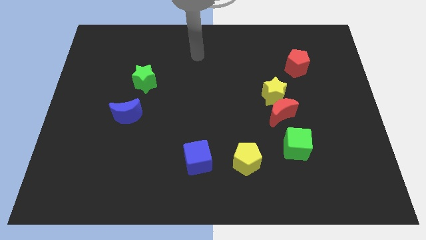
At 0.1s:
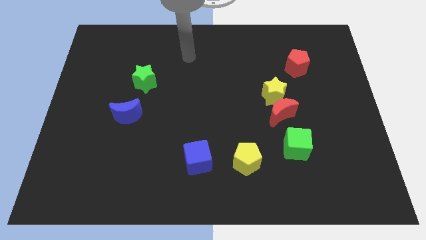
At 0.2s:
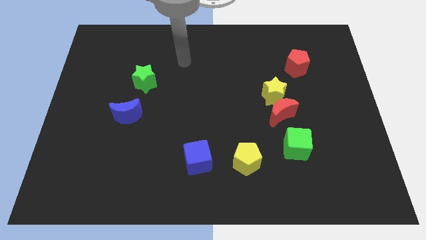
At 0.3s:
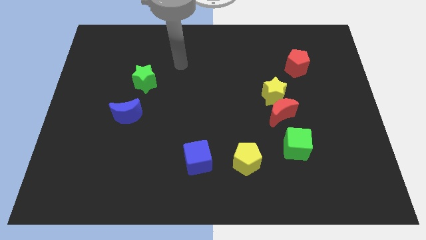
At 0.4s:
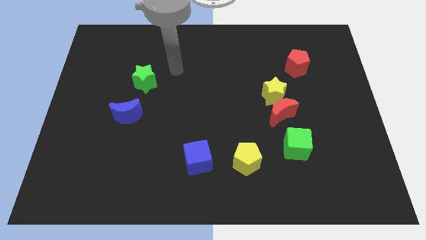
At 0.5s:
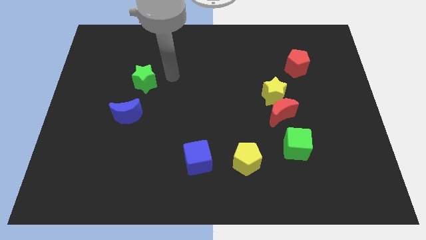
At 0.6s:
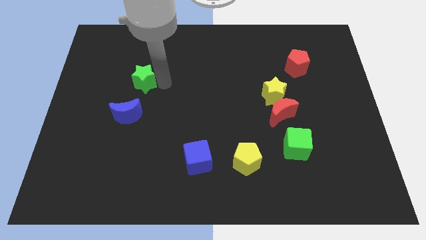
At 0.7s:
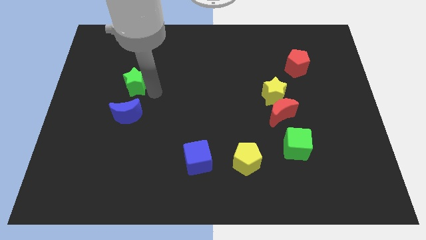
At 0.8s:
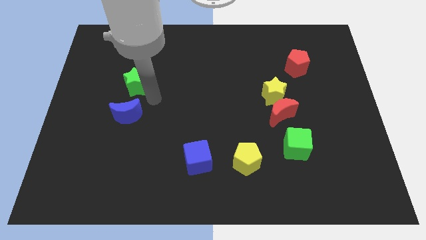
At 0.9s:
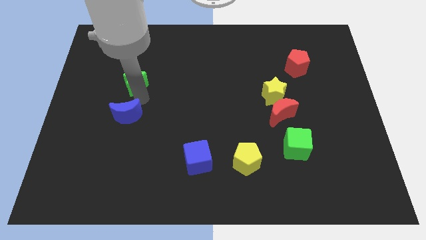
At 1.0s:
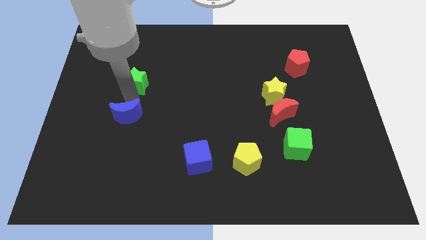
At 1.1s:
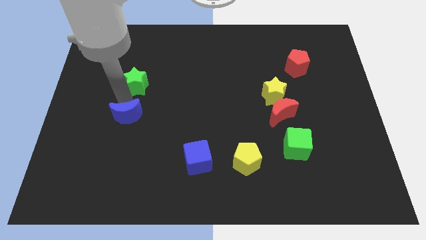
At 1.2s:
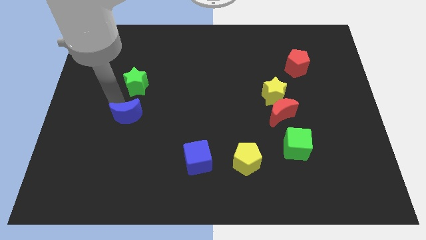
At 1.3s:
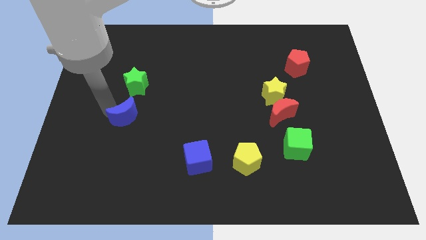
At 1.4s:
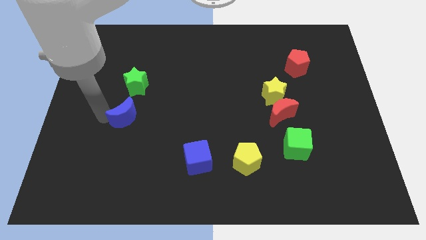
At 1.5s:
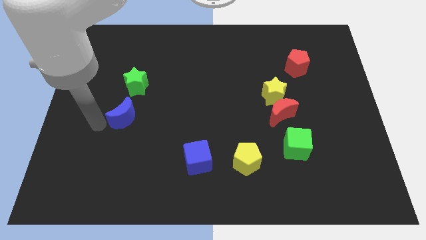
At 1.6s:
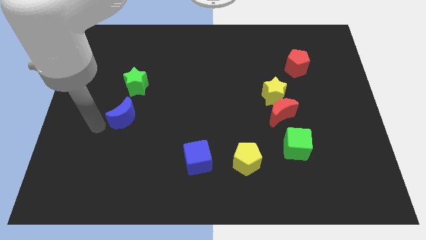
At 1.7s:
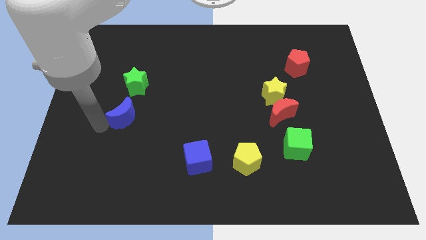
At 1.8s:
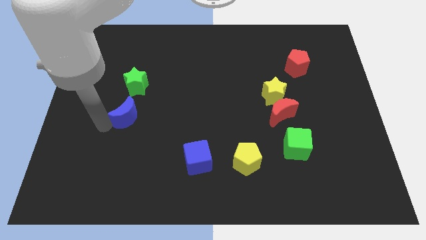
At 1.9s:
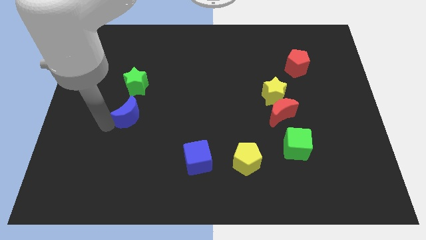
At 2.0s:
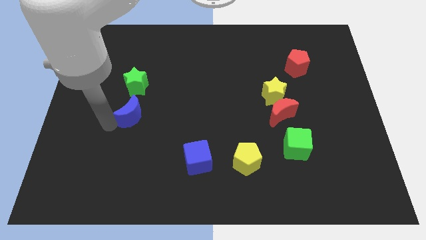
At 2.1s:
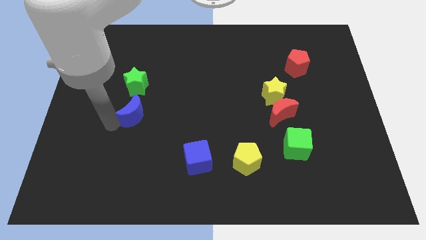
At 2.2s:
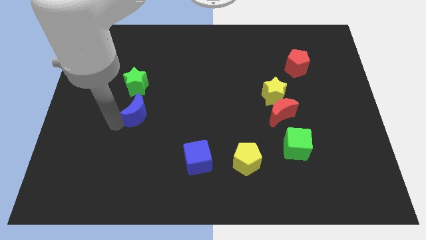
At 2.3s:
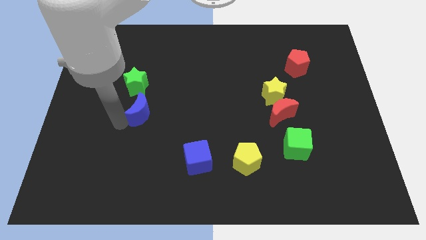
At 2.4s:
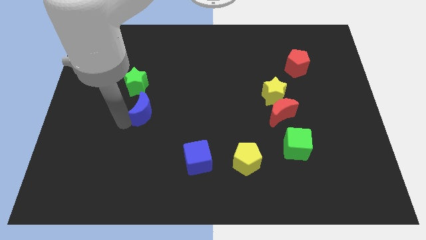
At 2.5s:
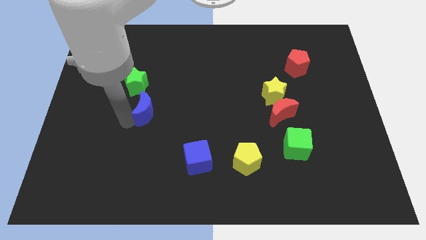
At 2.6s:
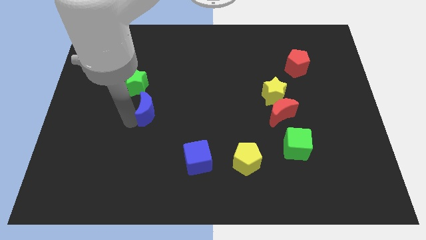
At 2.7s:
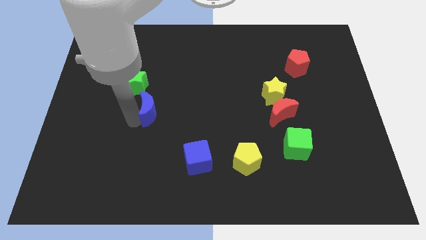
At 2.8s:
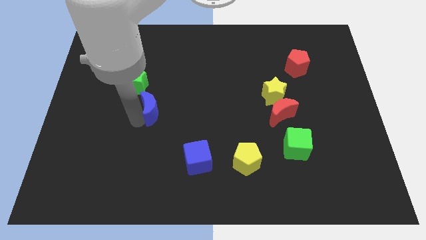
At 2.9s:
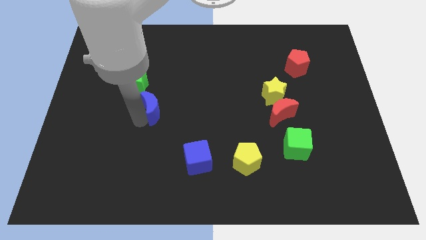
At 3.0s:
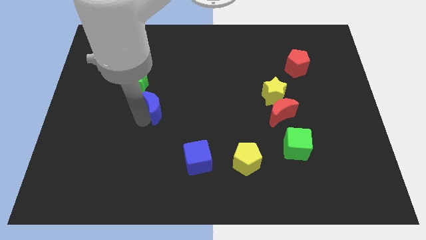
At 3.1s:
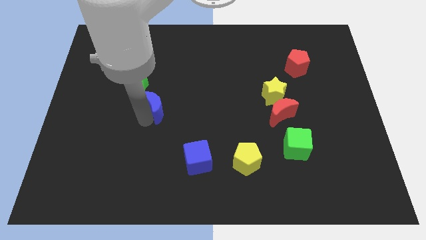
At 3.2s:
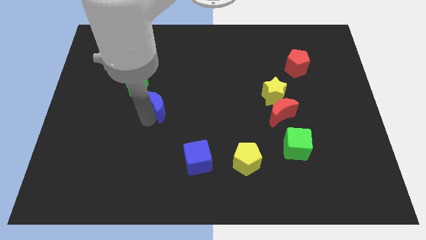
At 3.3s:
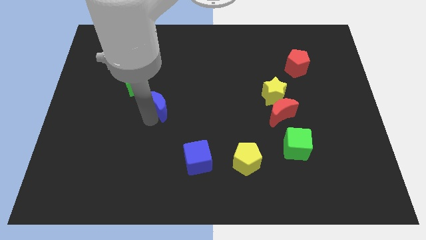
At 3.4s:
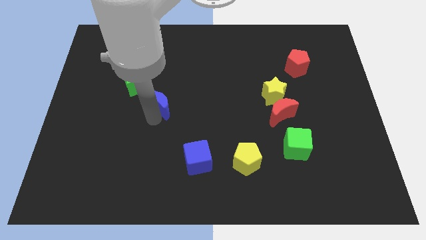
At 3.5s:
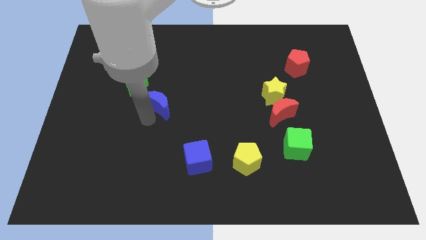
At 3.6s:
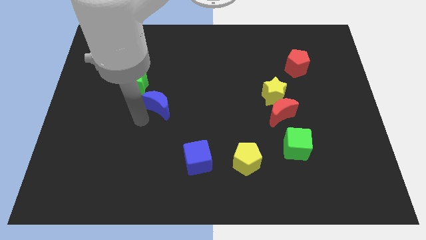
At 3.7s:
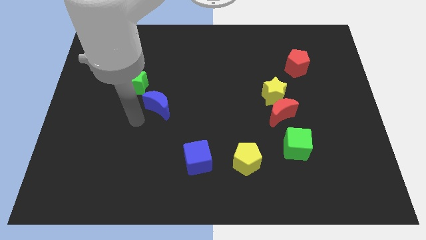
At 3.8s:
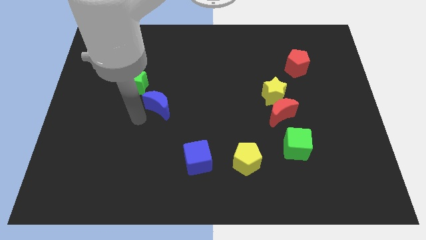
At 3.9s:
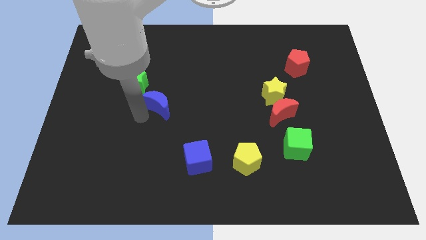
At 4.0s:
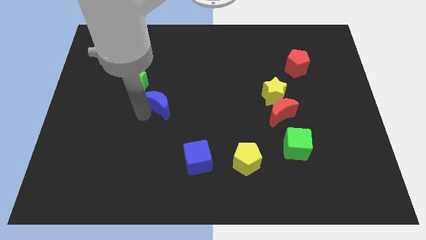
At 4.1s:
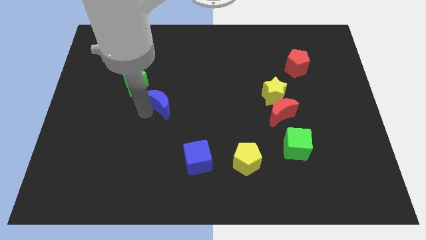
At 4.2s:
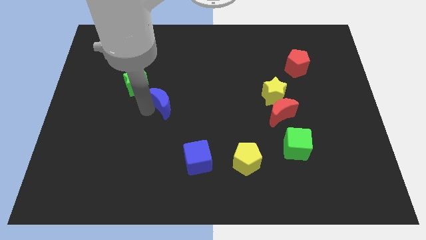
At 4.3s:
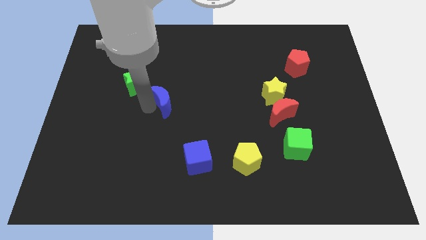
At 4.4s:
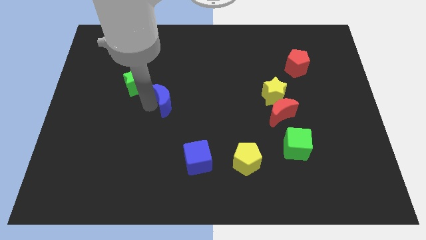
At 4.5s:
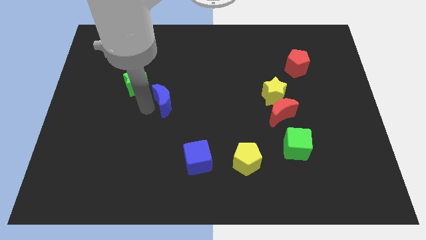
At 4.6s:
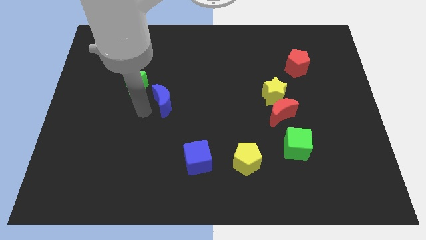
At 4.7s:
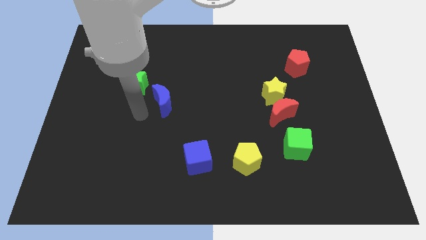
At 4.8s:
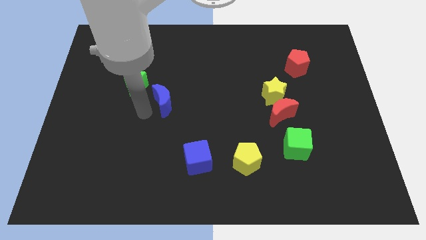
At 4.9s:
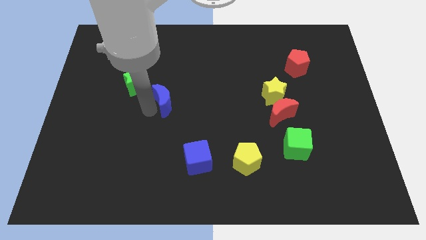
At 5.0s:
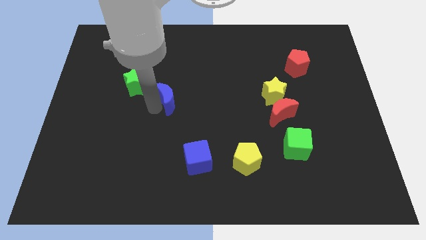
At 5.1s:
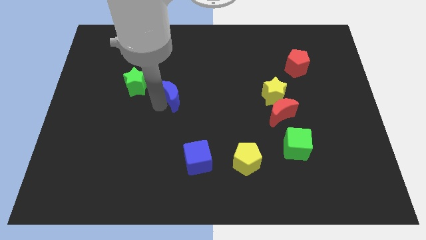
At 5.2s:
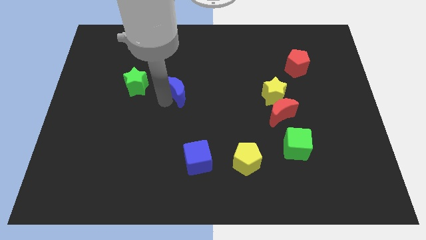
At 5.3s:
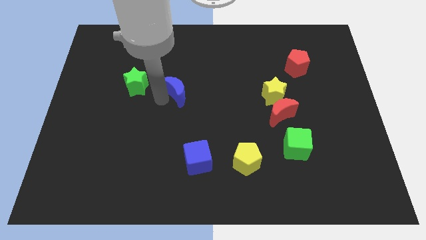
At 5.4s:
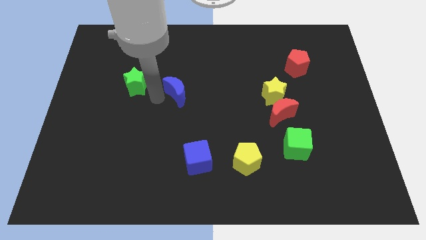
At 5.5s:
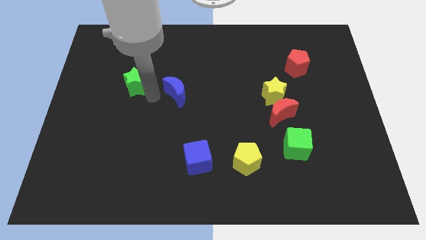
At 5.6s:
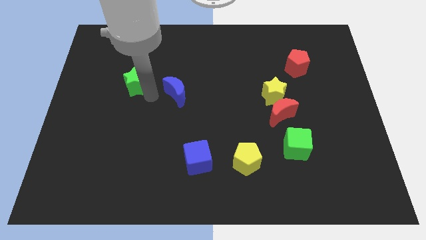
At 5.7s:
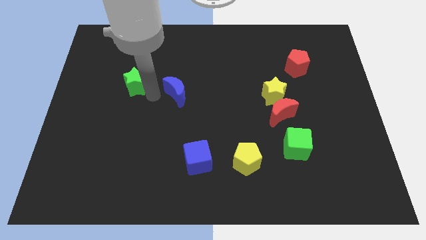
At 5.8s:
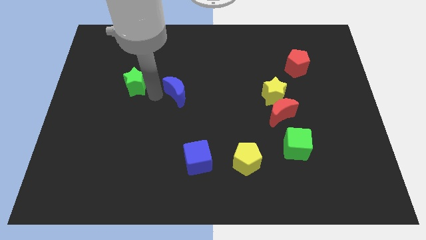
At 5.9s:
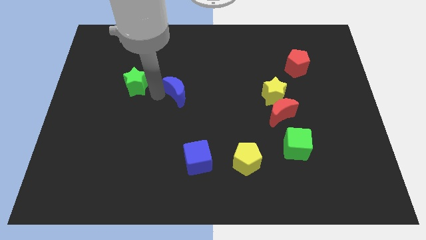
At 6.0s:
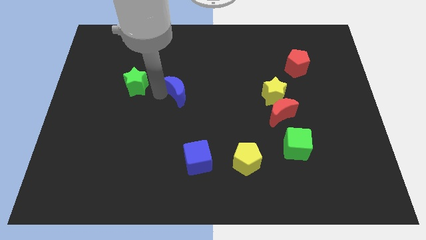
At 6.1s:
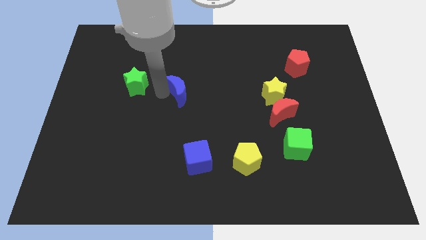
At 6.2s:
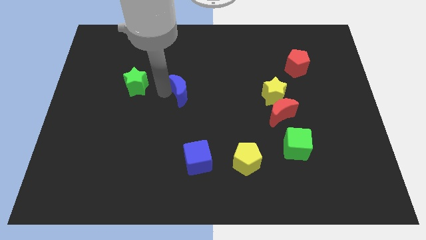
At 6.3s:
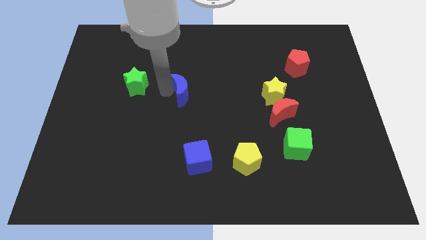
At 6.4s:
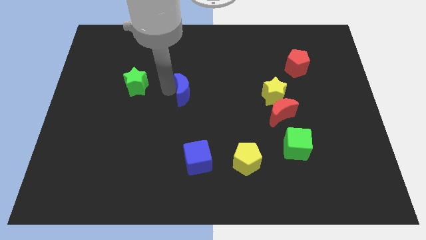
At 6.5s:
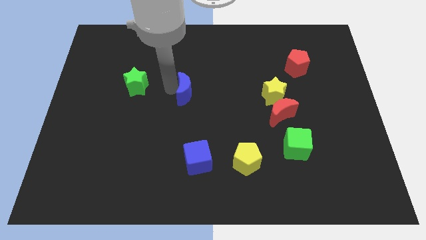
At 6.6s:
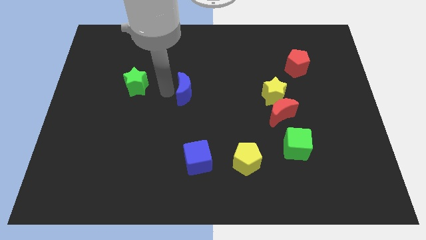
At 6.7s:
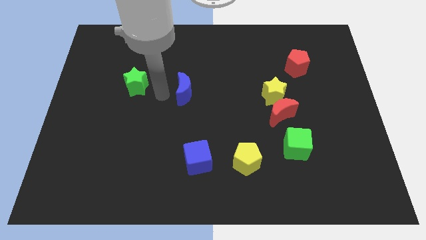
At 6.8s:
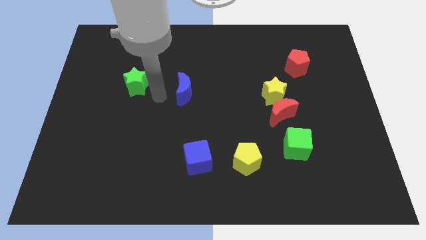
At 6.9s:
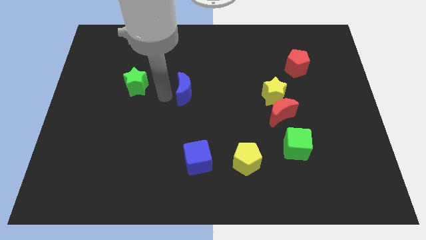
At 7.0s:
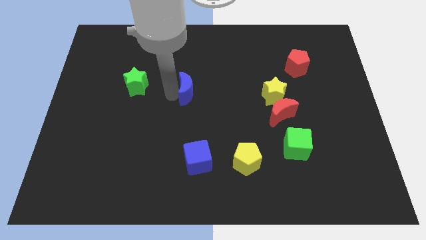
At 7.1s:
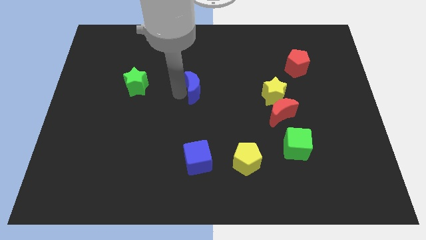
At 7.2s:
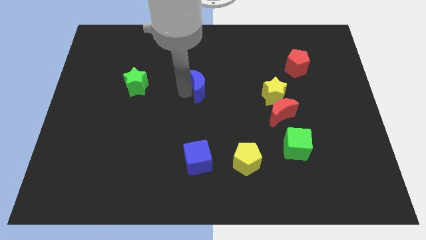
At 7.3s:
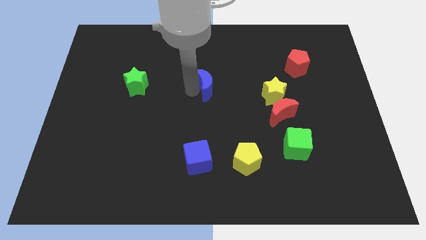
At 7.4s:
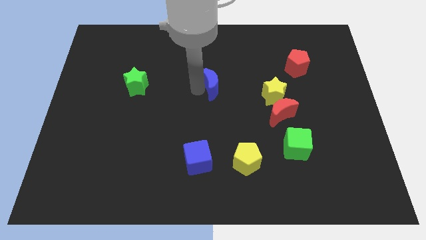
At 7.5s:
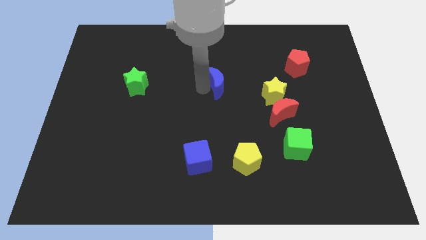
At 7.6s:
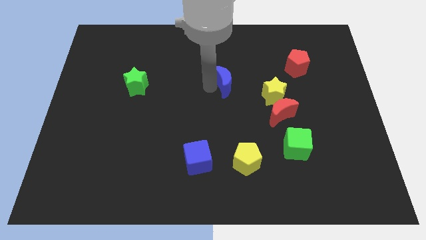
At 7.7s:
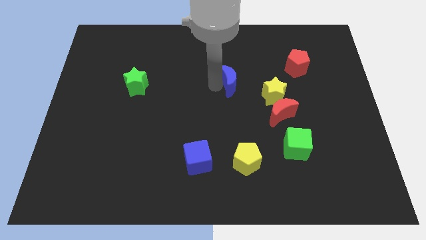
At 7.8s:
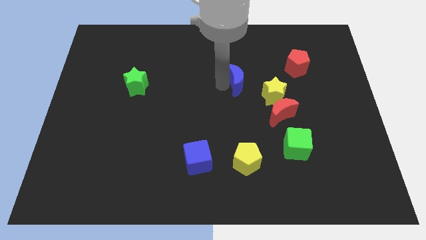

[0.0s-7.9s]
put the blue moon diagonally up and to the left of the yellow star
